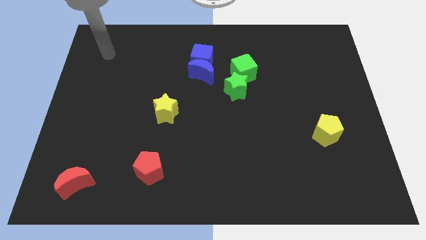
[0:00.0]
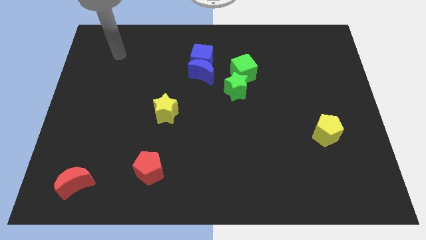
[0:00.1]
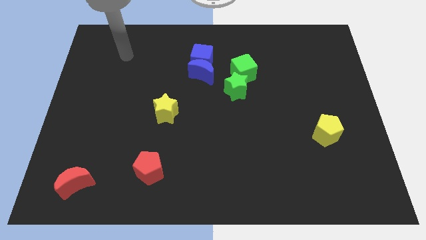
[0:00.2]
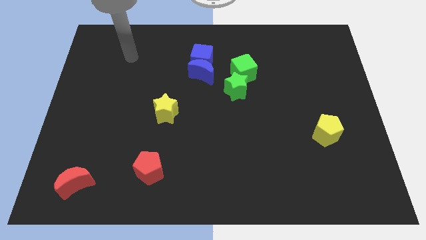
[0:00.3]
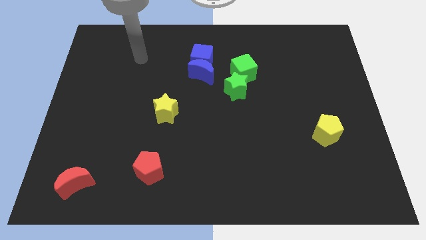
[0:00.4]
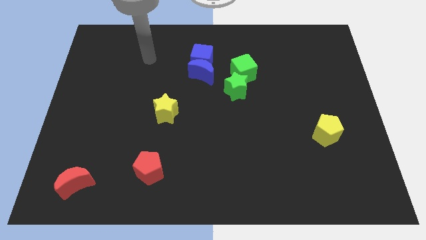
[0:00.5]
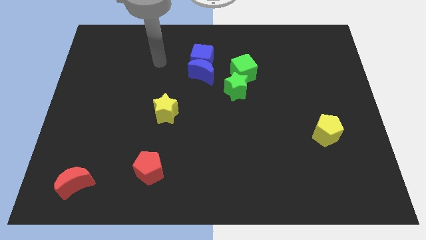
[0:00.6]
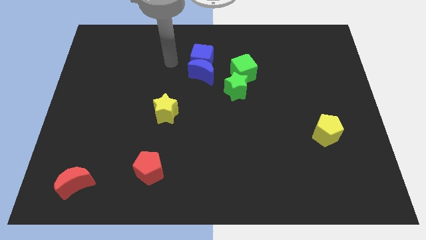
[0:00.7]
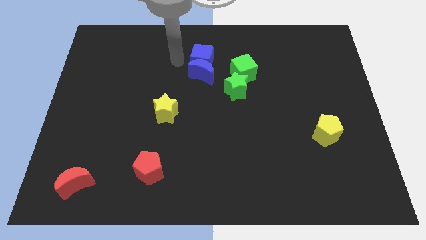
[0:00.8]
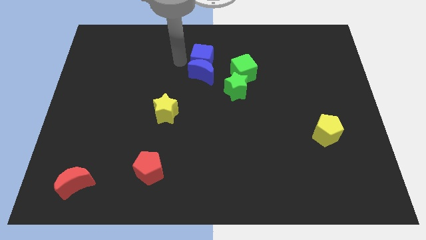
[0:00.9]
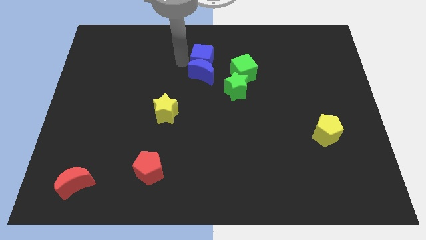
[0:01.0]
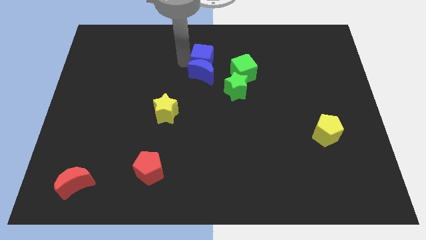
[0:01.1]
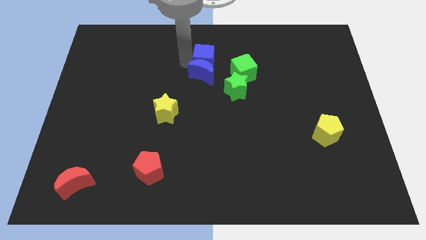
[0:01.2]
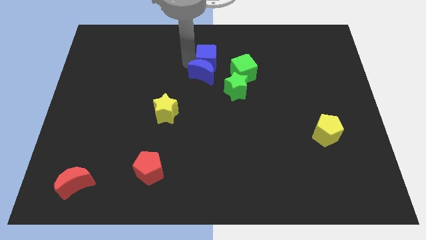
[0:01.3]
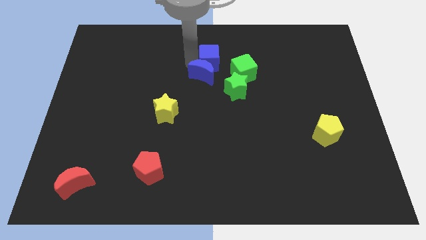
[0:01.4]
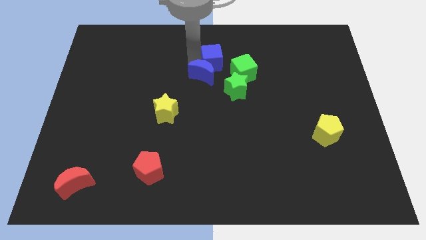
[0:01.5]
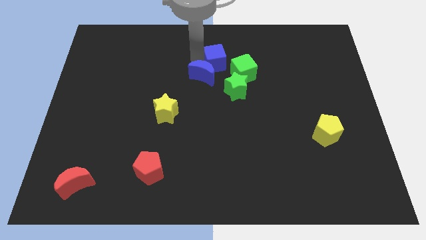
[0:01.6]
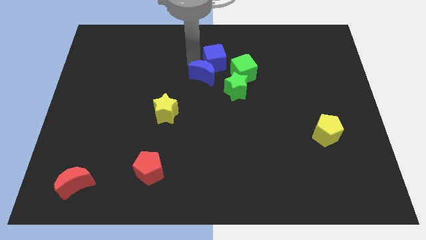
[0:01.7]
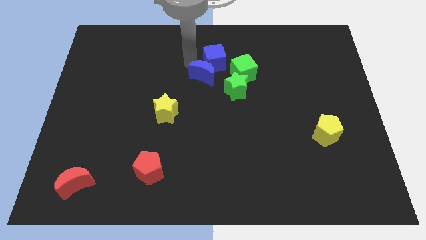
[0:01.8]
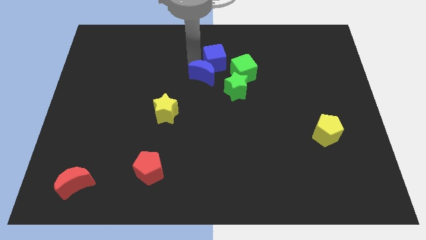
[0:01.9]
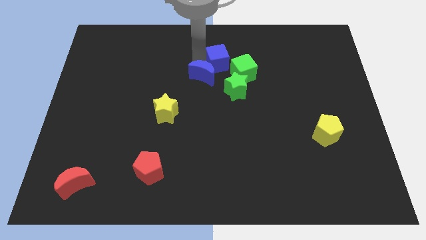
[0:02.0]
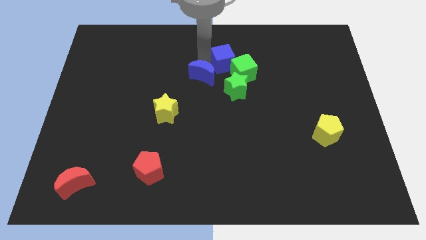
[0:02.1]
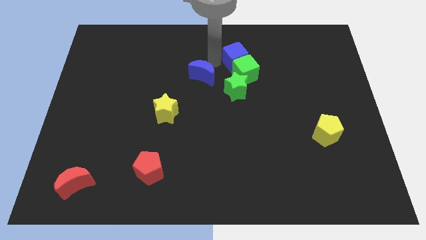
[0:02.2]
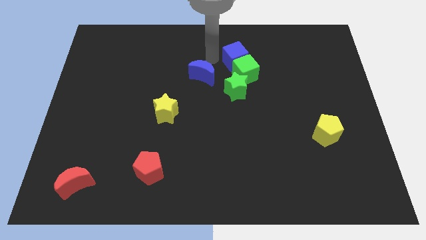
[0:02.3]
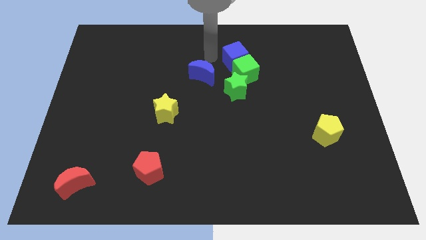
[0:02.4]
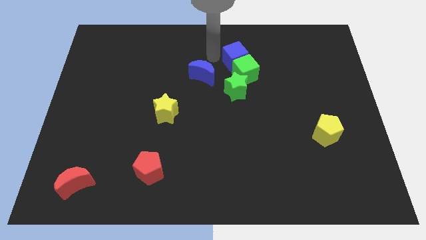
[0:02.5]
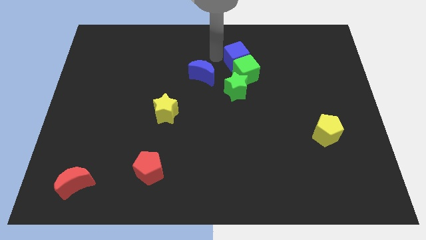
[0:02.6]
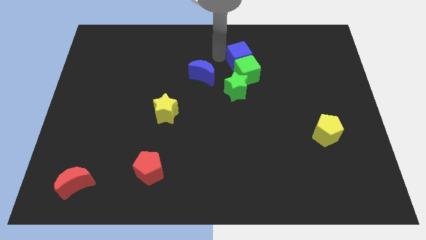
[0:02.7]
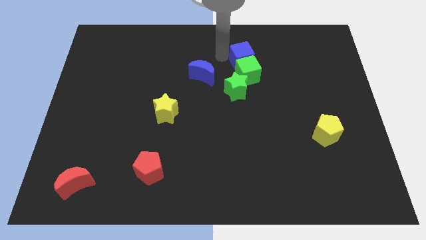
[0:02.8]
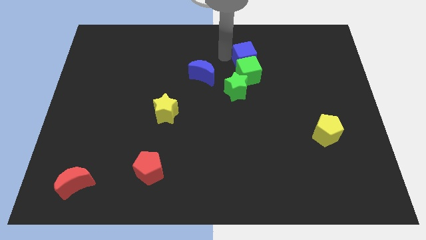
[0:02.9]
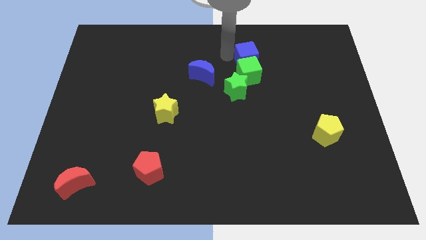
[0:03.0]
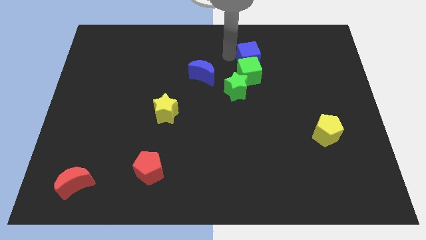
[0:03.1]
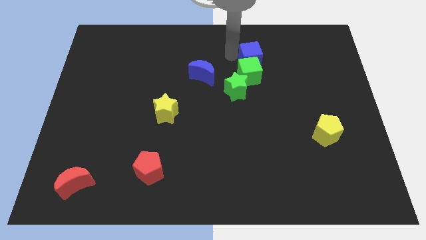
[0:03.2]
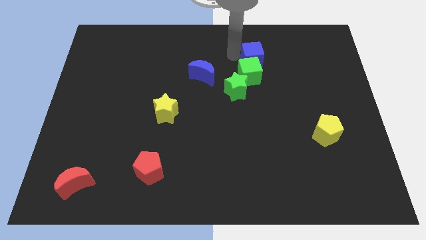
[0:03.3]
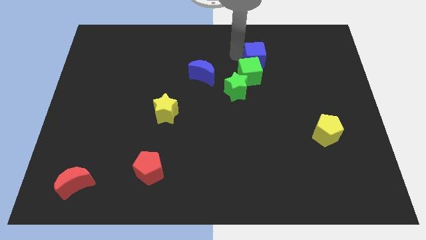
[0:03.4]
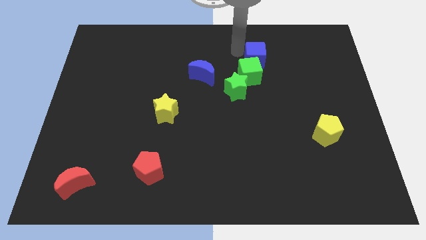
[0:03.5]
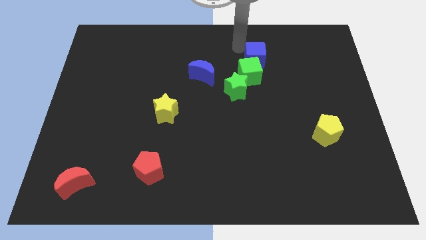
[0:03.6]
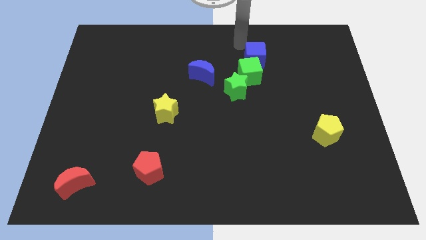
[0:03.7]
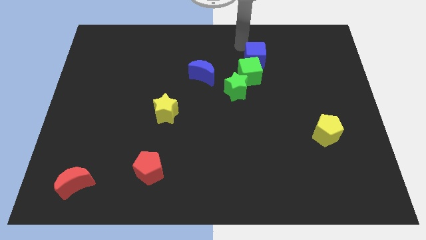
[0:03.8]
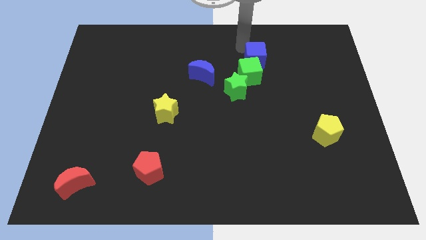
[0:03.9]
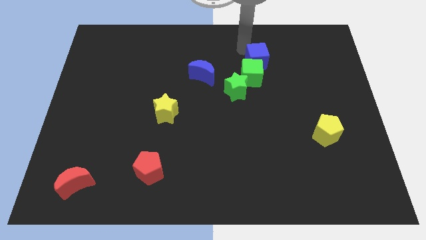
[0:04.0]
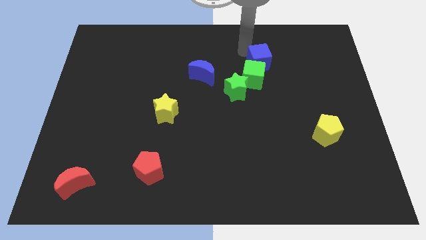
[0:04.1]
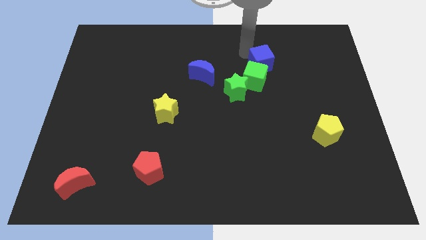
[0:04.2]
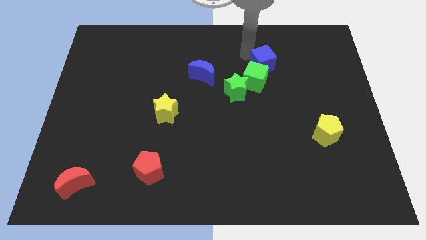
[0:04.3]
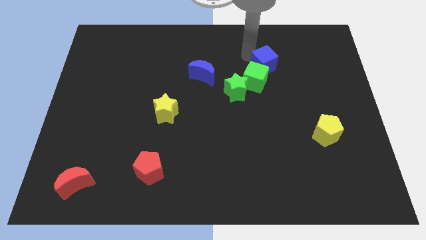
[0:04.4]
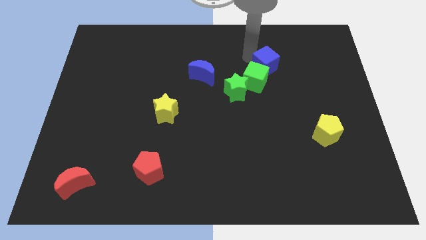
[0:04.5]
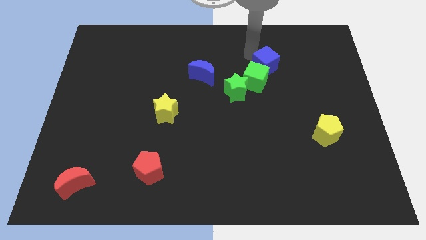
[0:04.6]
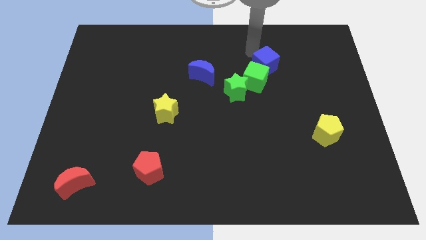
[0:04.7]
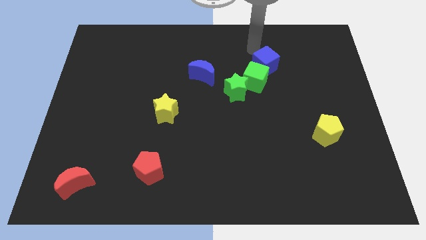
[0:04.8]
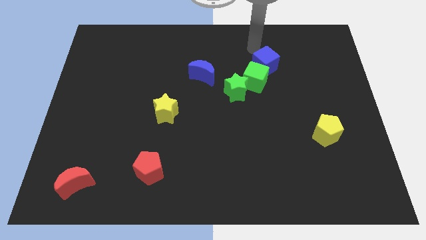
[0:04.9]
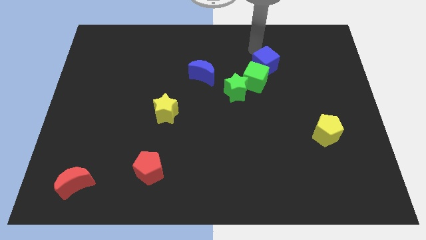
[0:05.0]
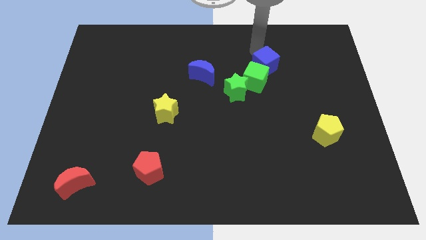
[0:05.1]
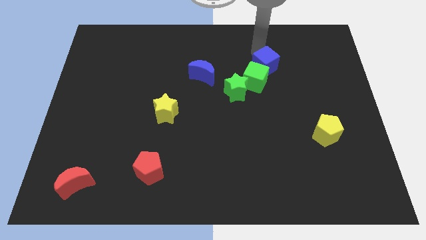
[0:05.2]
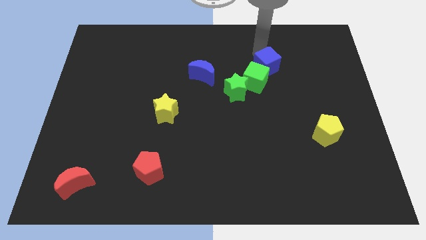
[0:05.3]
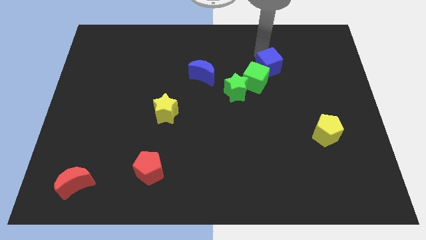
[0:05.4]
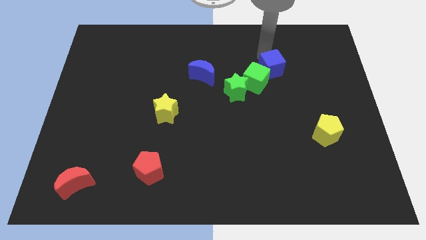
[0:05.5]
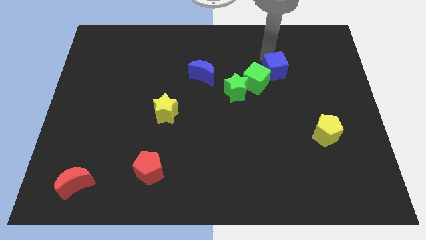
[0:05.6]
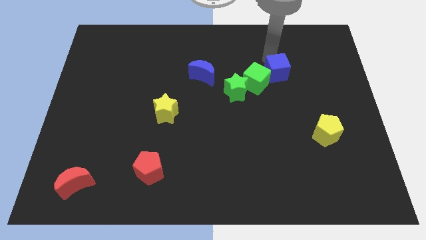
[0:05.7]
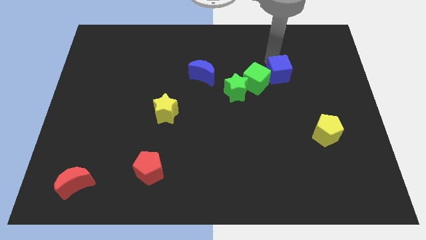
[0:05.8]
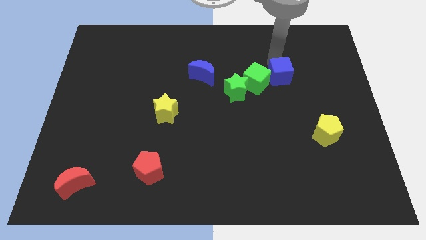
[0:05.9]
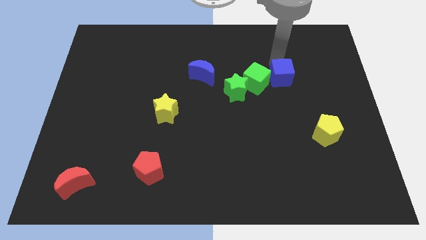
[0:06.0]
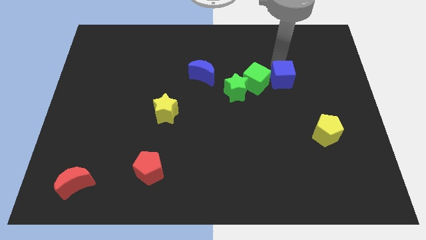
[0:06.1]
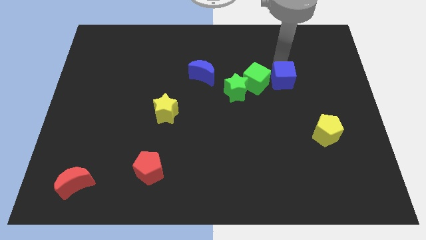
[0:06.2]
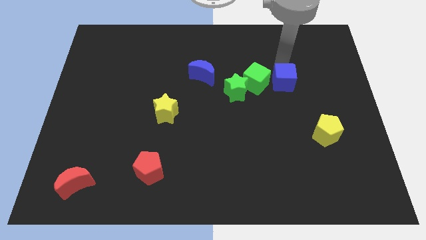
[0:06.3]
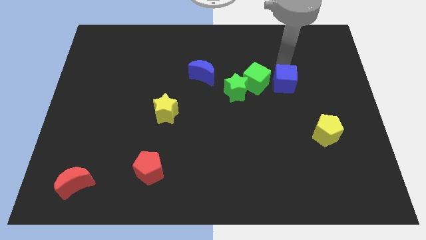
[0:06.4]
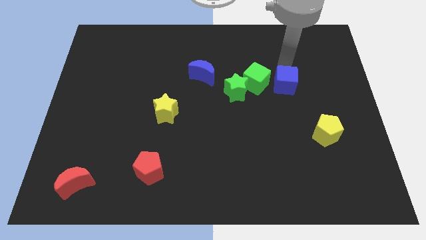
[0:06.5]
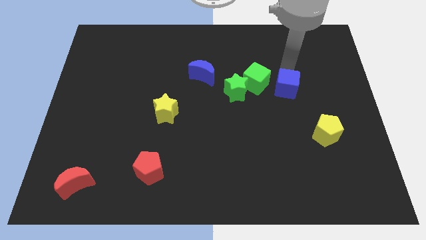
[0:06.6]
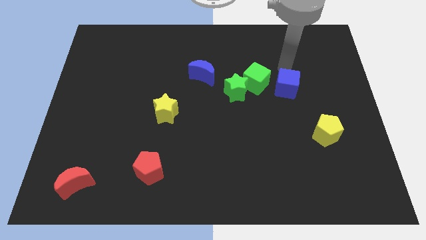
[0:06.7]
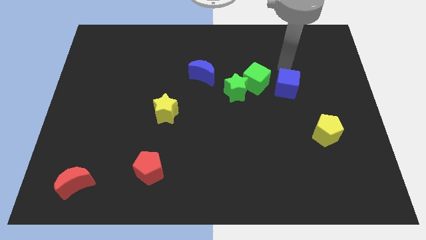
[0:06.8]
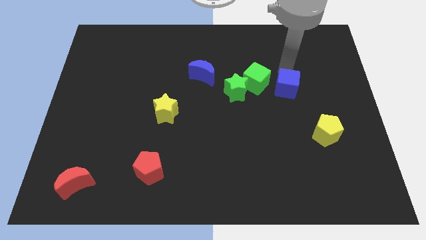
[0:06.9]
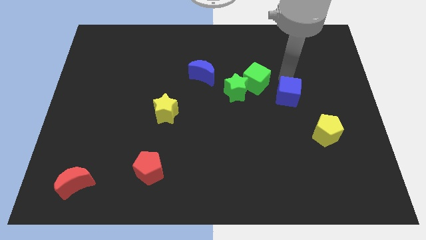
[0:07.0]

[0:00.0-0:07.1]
slide the blue cube down and to the right

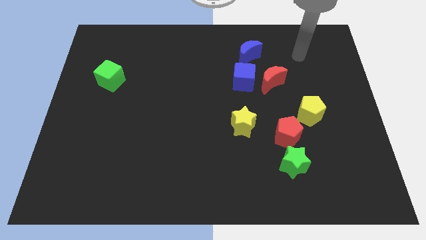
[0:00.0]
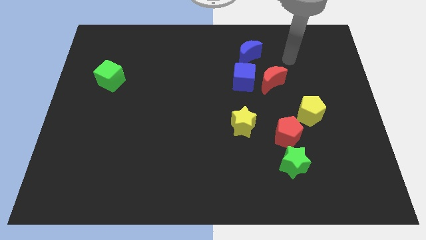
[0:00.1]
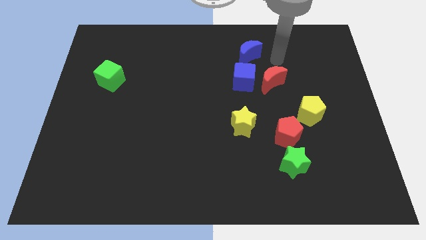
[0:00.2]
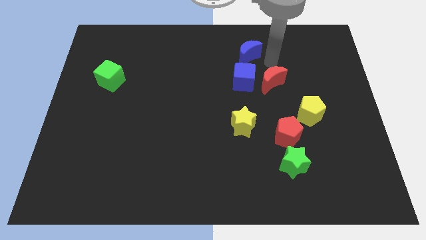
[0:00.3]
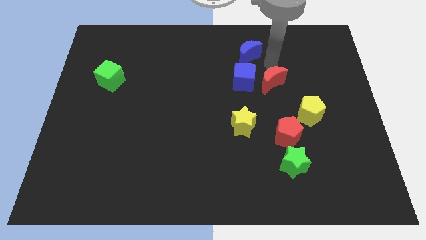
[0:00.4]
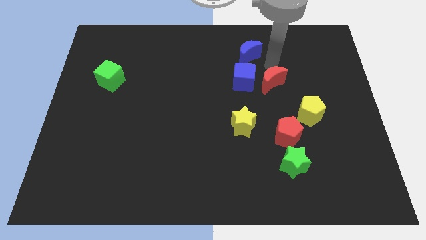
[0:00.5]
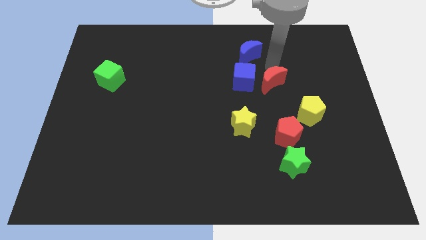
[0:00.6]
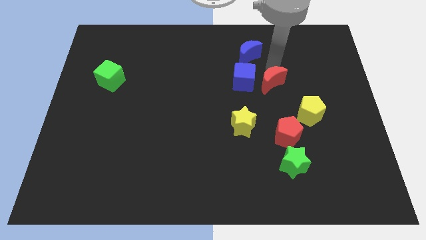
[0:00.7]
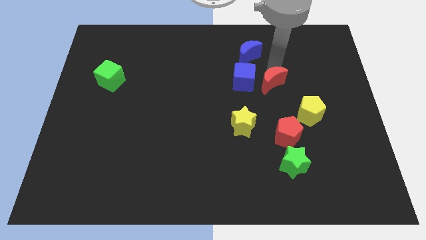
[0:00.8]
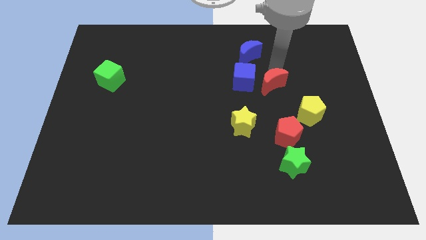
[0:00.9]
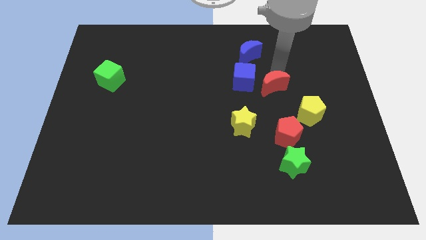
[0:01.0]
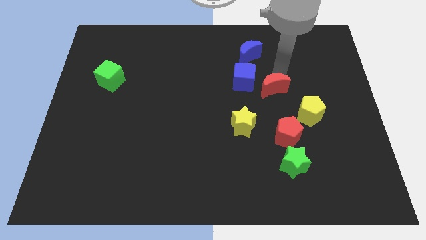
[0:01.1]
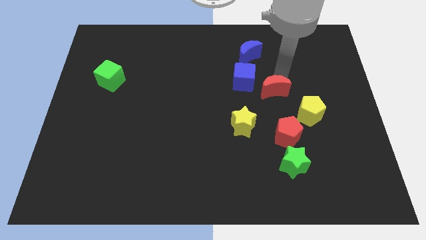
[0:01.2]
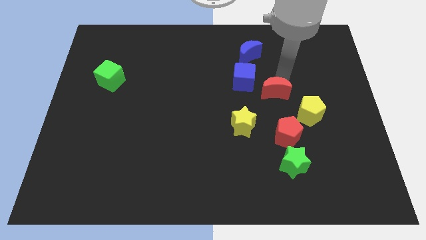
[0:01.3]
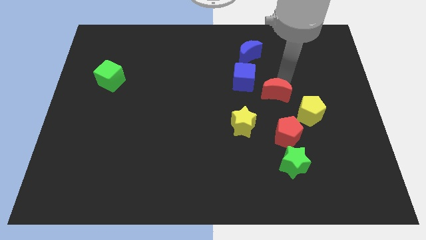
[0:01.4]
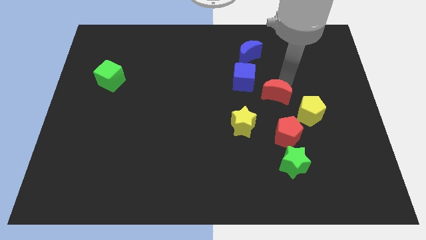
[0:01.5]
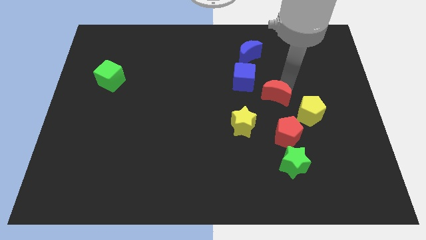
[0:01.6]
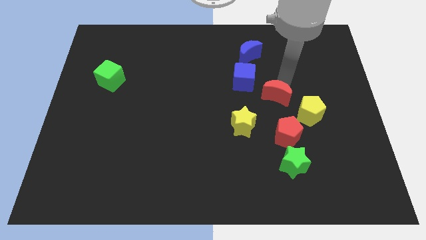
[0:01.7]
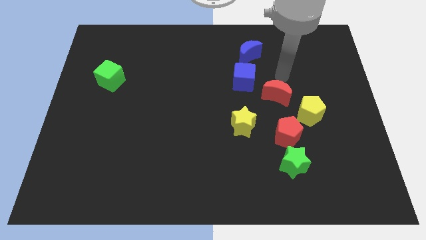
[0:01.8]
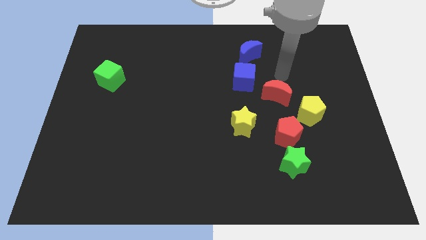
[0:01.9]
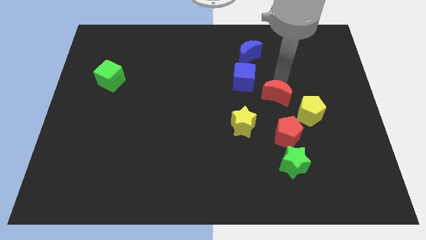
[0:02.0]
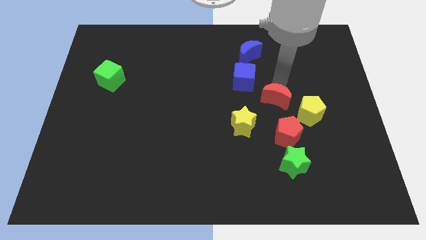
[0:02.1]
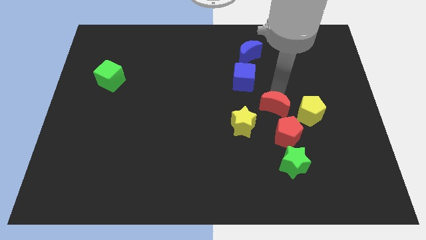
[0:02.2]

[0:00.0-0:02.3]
slide the red moon a bit down
